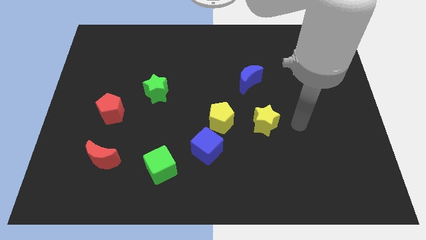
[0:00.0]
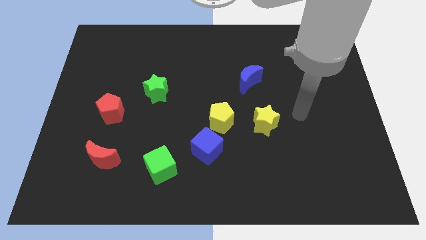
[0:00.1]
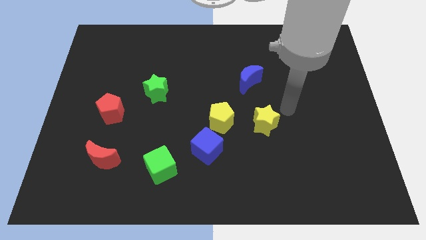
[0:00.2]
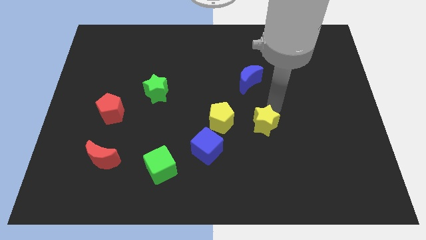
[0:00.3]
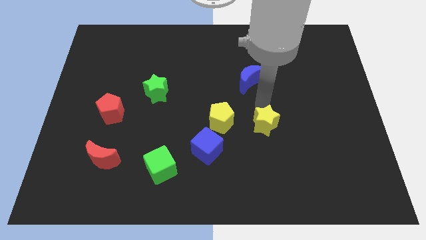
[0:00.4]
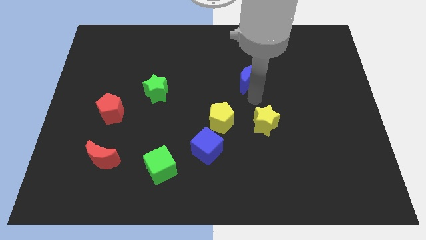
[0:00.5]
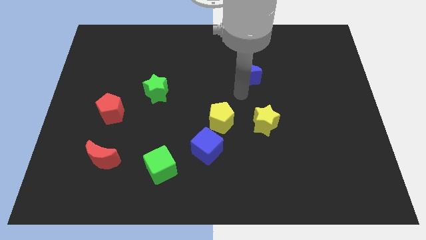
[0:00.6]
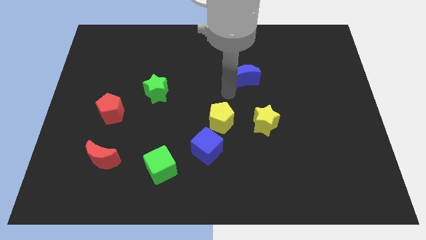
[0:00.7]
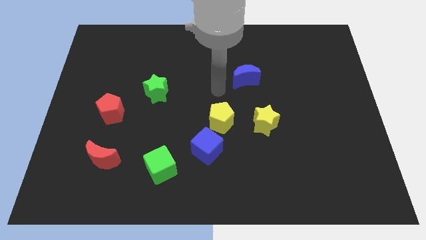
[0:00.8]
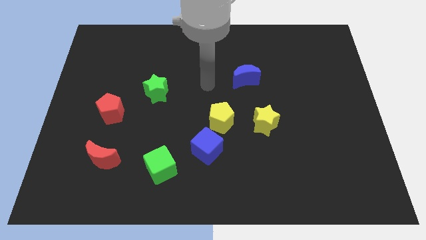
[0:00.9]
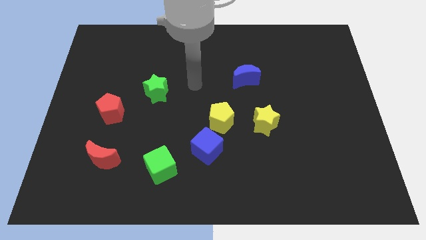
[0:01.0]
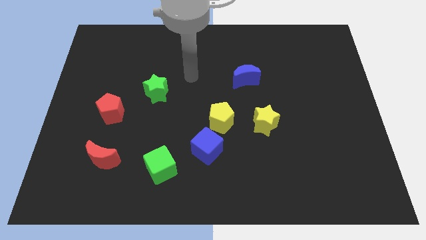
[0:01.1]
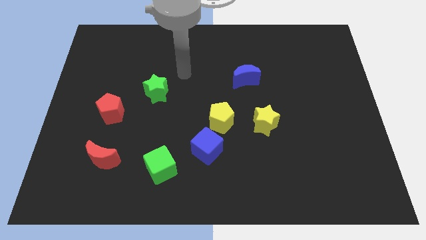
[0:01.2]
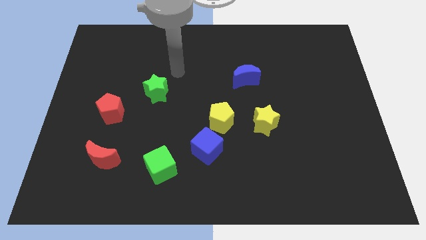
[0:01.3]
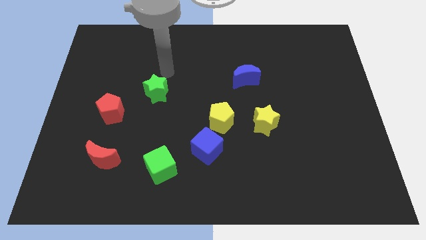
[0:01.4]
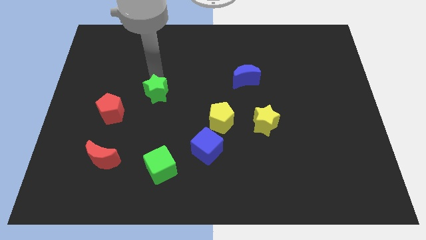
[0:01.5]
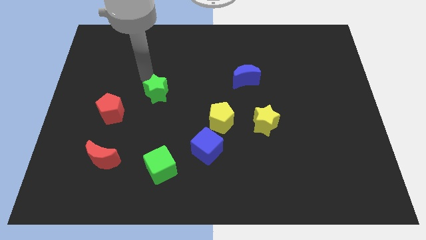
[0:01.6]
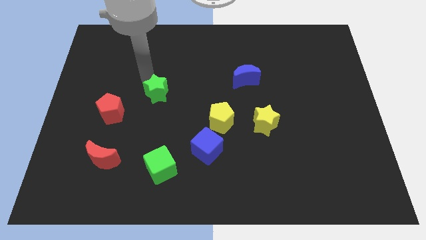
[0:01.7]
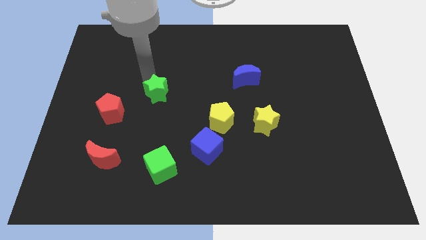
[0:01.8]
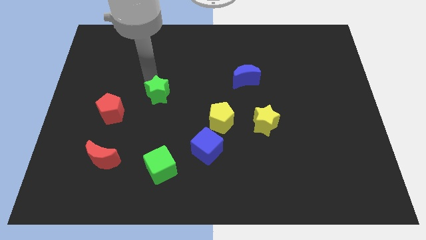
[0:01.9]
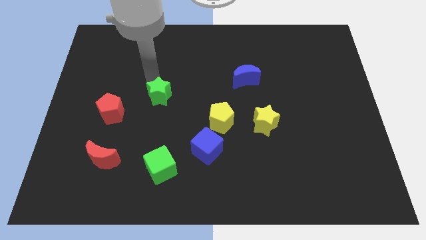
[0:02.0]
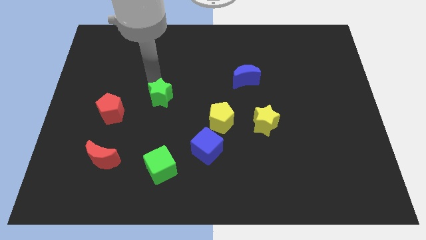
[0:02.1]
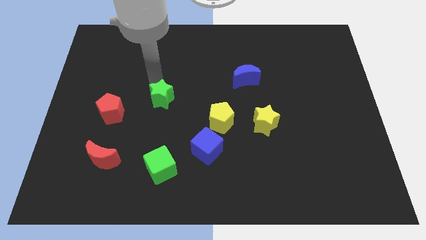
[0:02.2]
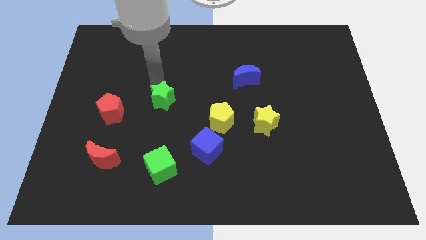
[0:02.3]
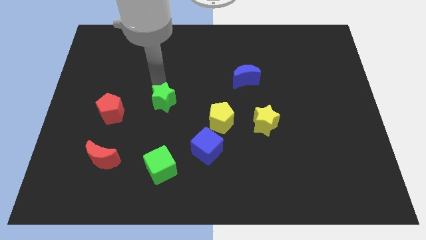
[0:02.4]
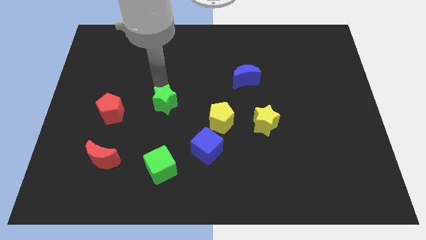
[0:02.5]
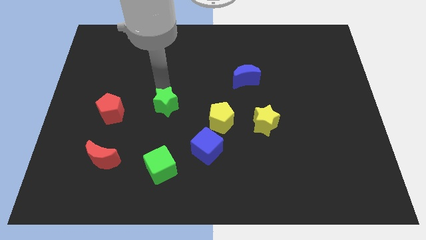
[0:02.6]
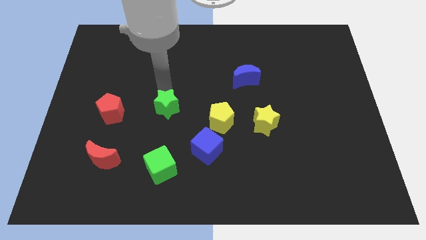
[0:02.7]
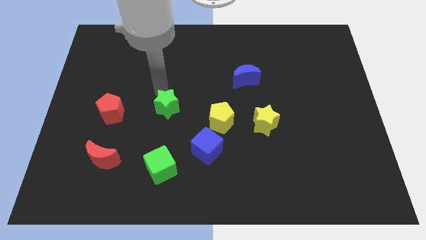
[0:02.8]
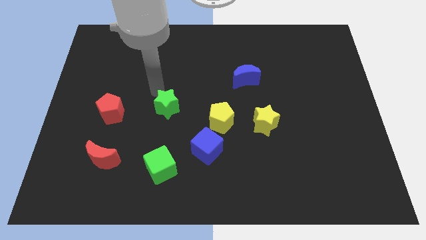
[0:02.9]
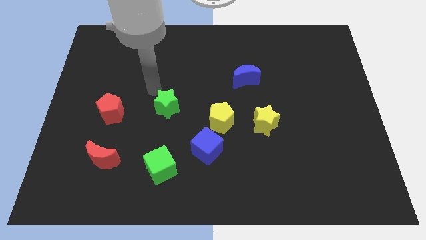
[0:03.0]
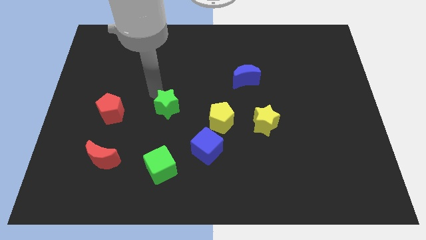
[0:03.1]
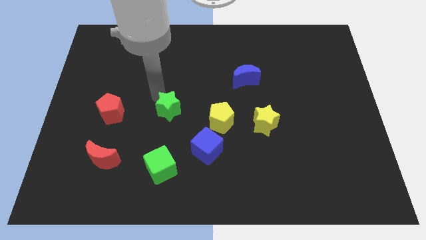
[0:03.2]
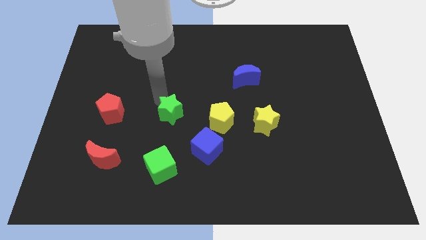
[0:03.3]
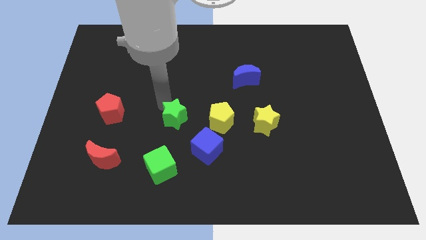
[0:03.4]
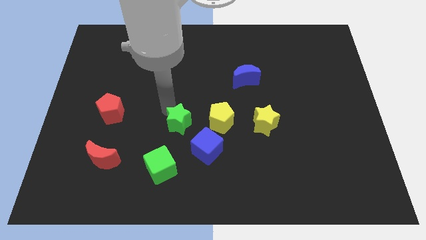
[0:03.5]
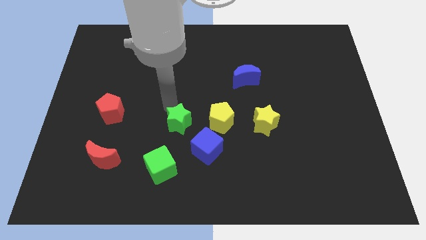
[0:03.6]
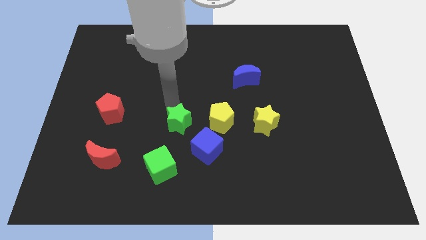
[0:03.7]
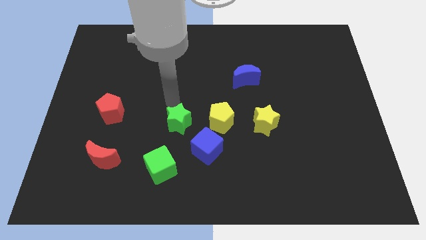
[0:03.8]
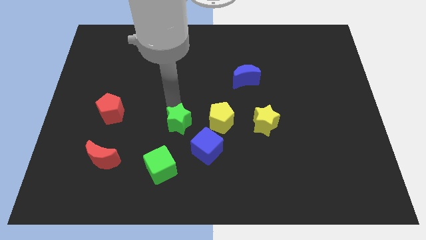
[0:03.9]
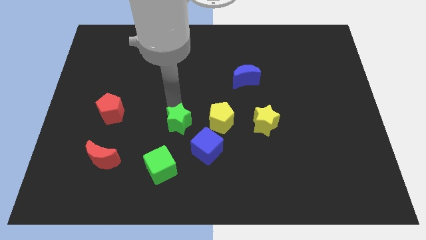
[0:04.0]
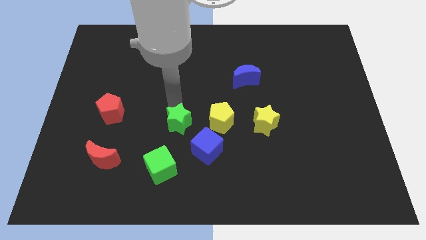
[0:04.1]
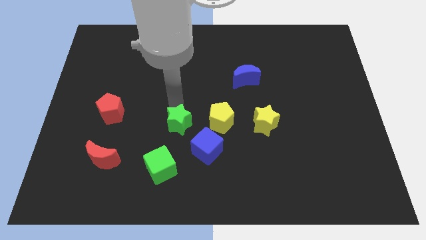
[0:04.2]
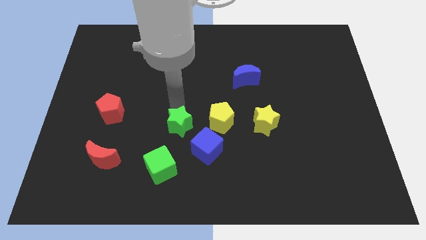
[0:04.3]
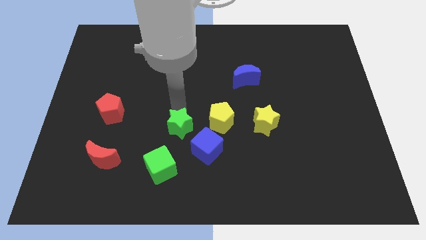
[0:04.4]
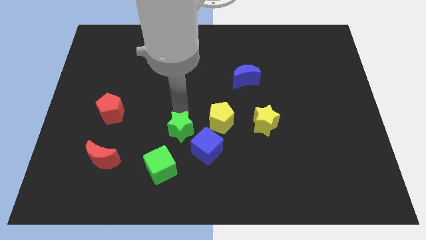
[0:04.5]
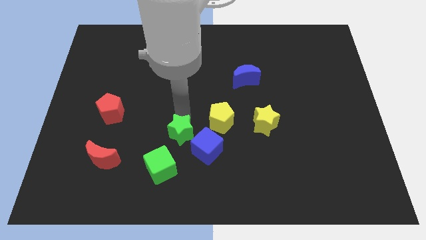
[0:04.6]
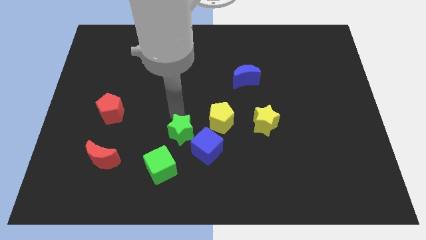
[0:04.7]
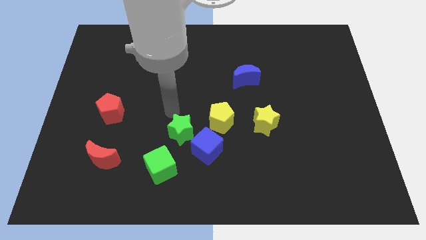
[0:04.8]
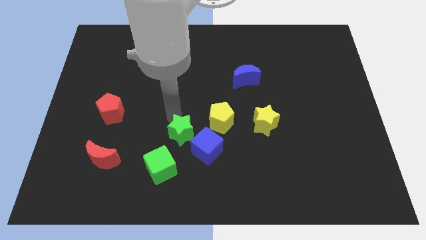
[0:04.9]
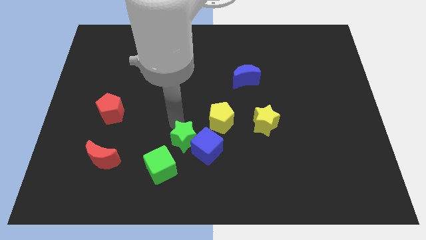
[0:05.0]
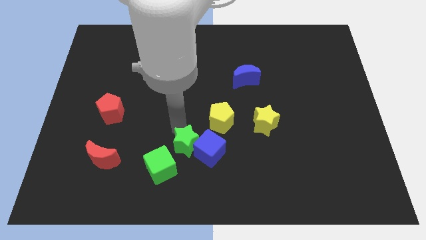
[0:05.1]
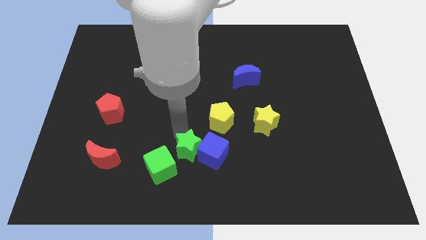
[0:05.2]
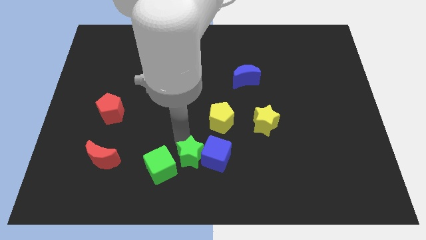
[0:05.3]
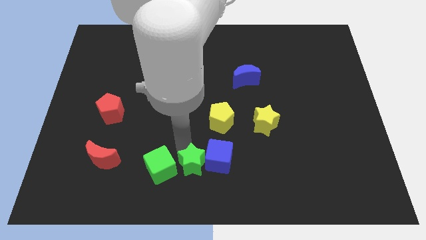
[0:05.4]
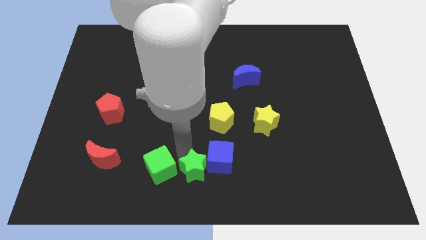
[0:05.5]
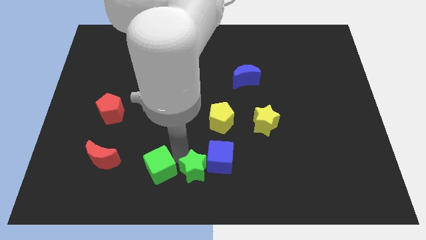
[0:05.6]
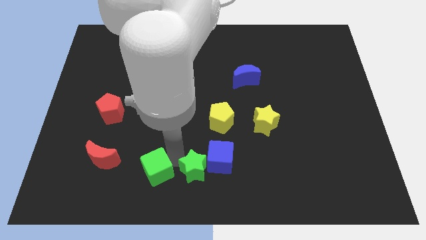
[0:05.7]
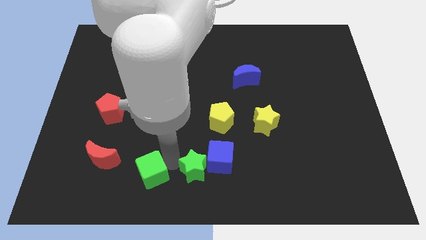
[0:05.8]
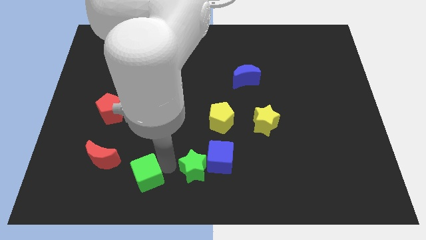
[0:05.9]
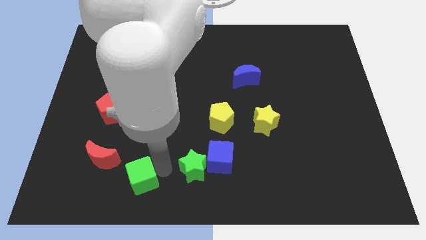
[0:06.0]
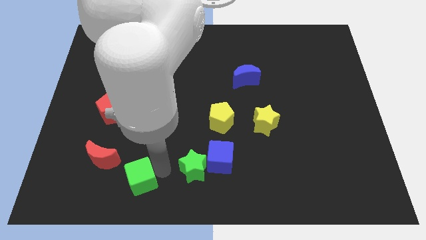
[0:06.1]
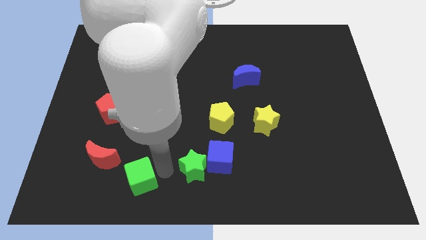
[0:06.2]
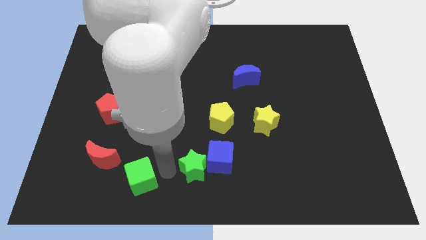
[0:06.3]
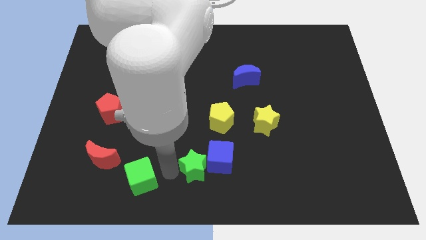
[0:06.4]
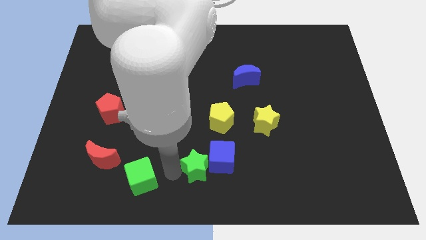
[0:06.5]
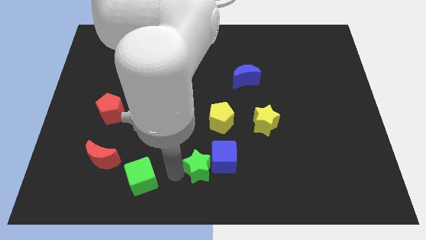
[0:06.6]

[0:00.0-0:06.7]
move the green star down and to the right

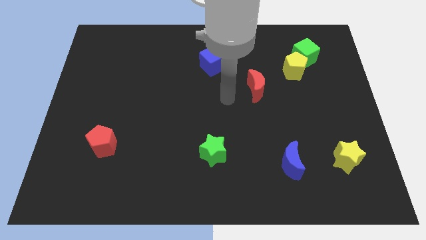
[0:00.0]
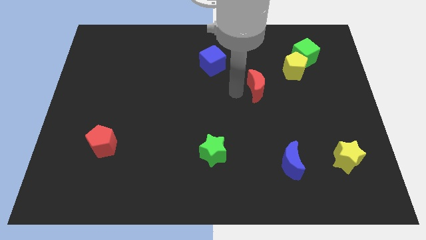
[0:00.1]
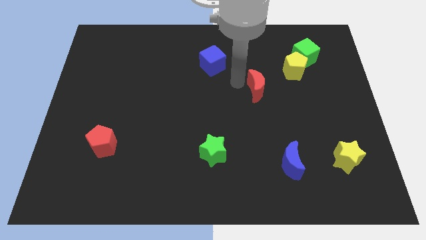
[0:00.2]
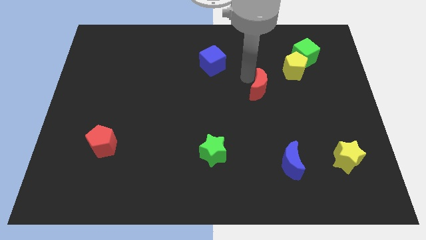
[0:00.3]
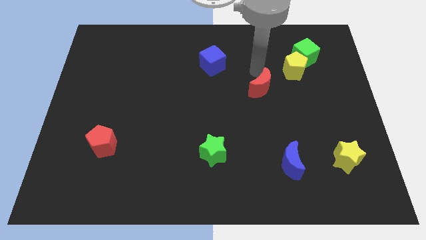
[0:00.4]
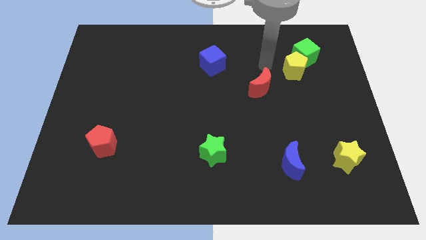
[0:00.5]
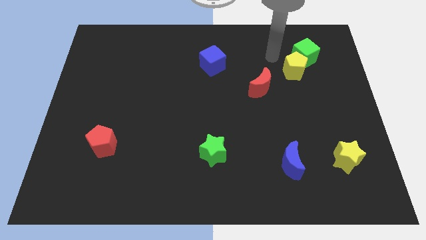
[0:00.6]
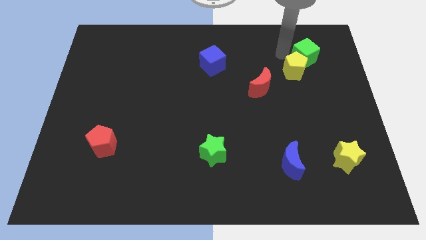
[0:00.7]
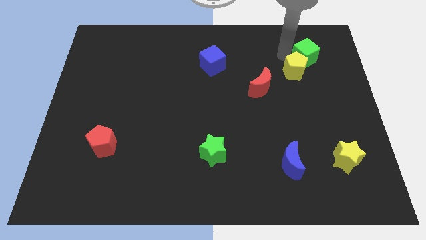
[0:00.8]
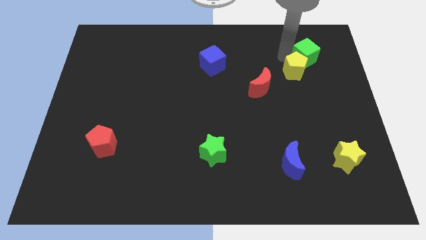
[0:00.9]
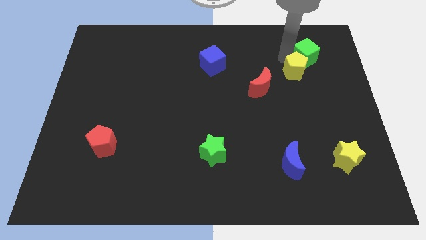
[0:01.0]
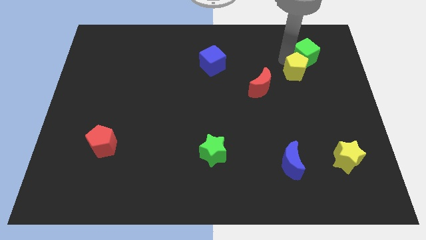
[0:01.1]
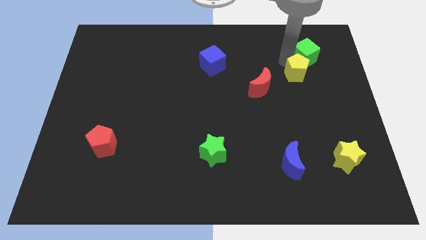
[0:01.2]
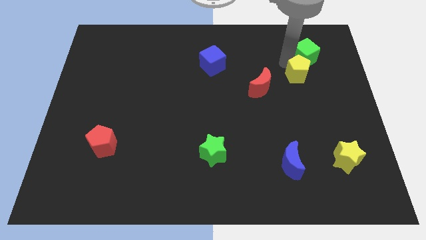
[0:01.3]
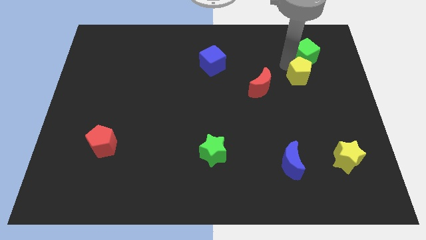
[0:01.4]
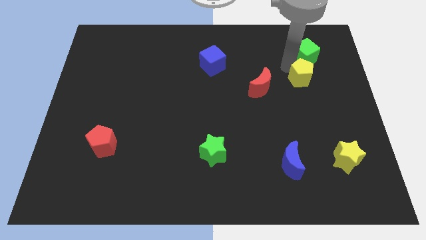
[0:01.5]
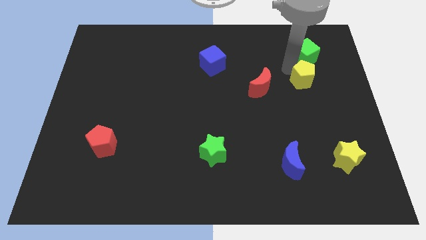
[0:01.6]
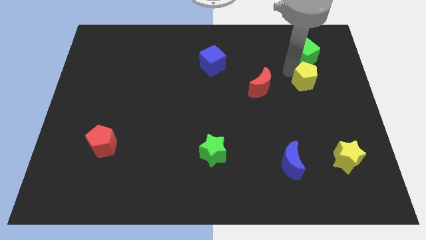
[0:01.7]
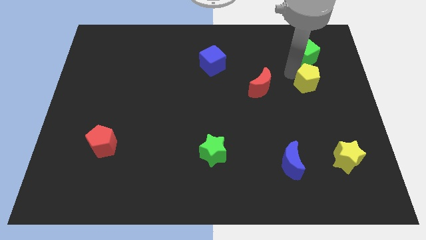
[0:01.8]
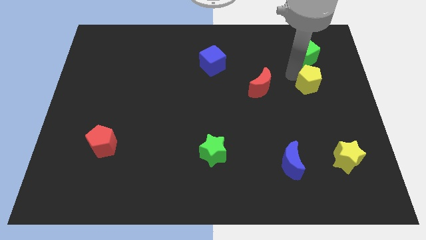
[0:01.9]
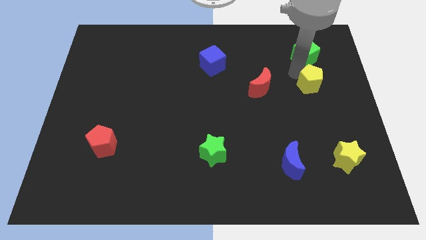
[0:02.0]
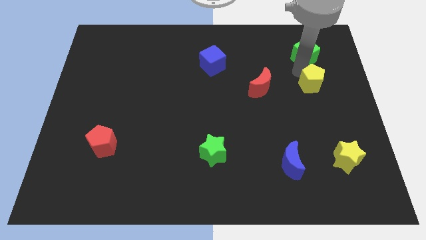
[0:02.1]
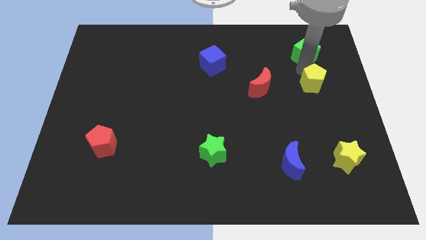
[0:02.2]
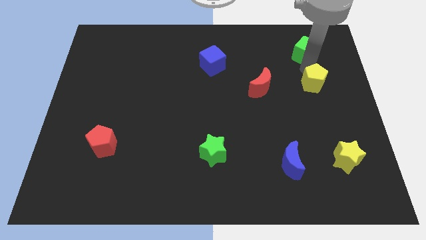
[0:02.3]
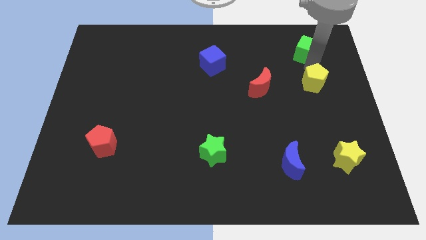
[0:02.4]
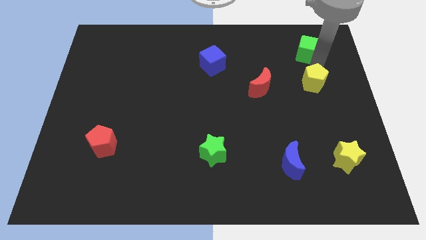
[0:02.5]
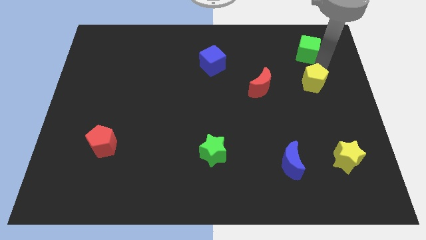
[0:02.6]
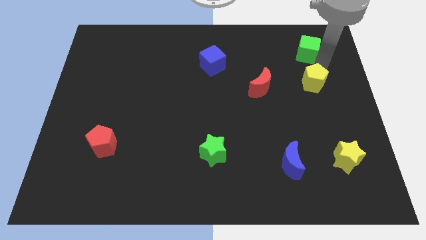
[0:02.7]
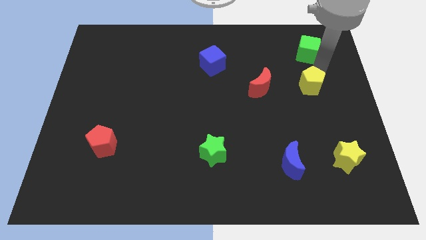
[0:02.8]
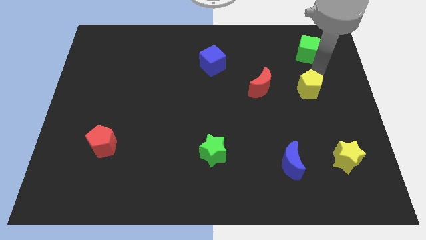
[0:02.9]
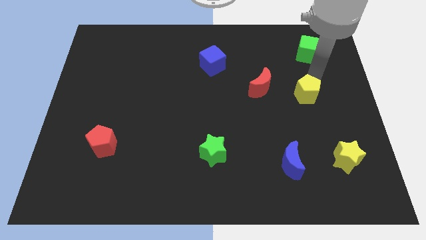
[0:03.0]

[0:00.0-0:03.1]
slightly move the yellow pentagon downwards
